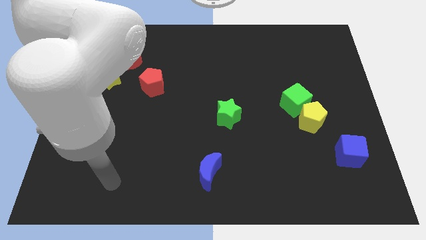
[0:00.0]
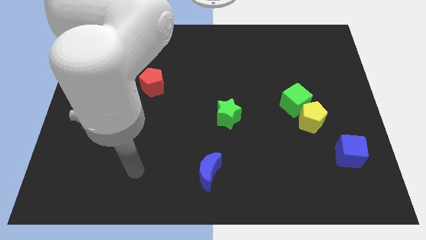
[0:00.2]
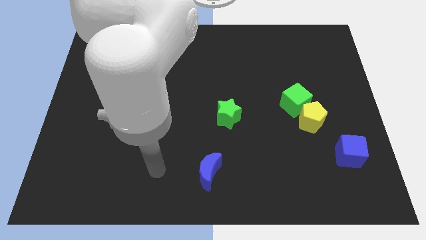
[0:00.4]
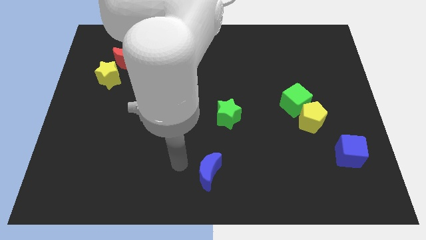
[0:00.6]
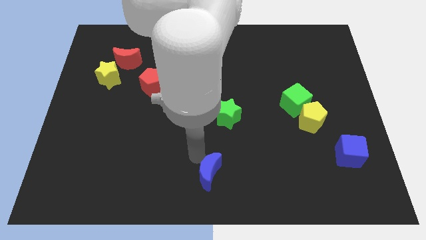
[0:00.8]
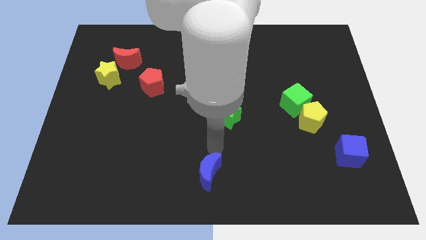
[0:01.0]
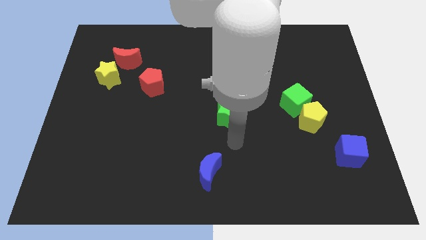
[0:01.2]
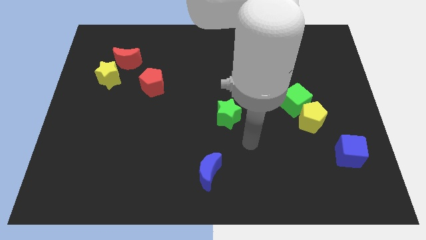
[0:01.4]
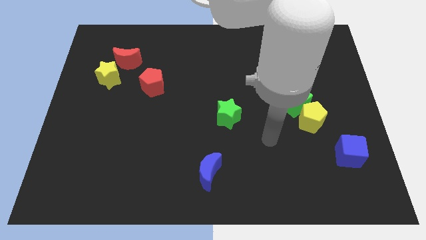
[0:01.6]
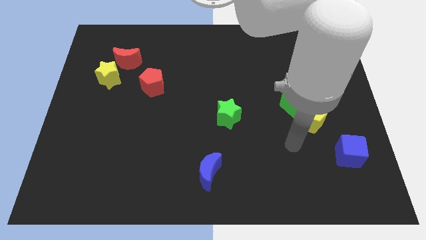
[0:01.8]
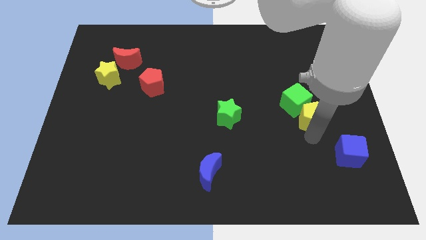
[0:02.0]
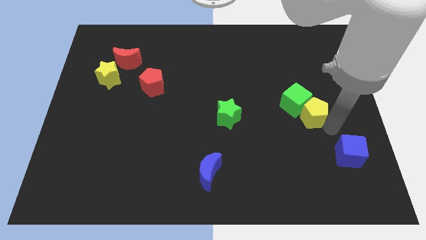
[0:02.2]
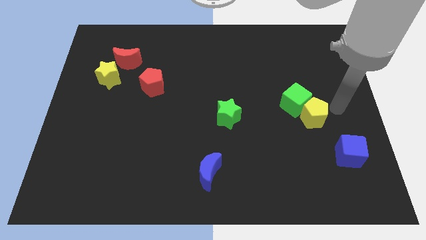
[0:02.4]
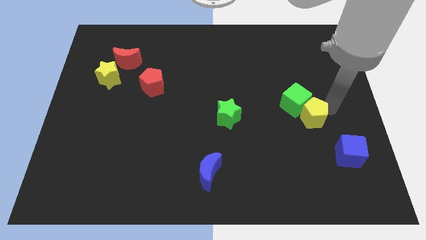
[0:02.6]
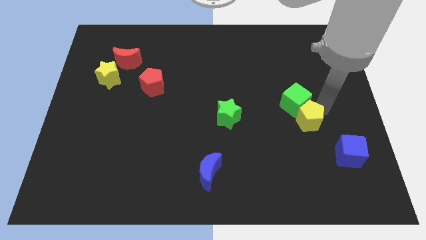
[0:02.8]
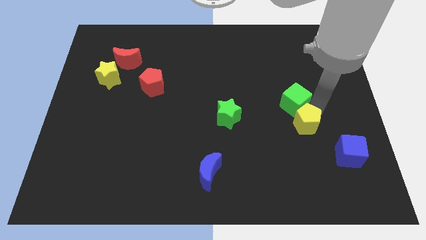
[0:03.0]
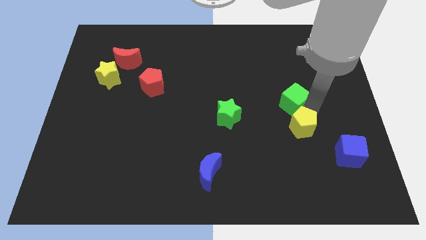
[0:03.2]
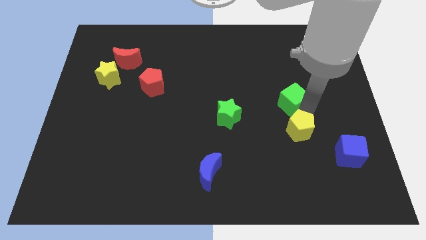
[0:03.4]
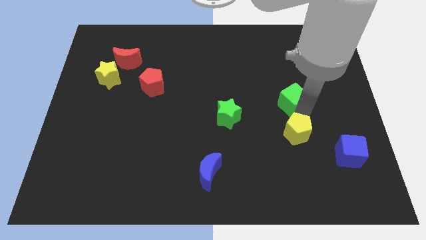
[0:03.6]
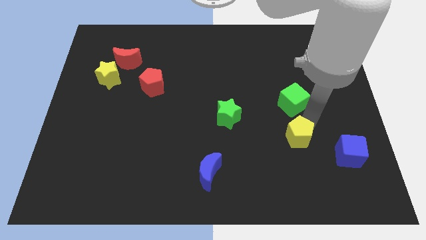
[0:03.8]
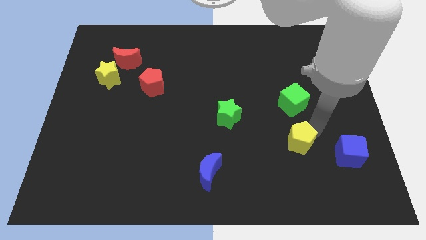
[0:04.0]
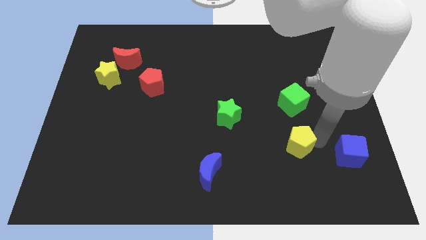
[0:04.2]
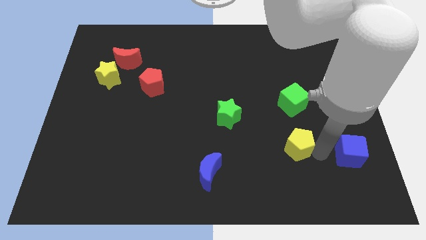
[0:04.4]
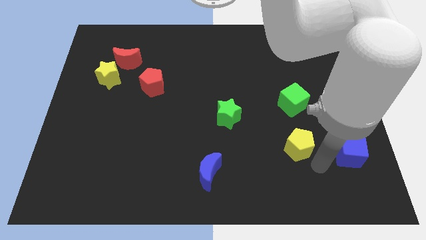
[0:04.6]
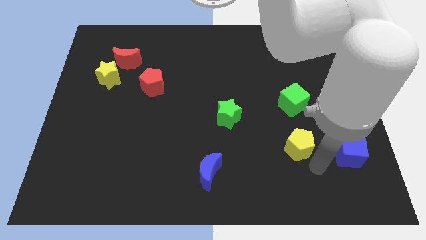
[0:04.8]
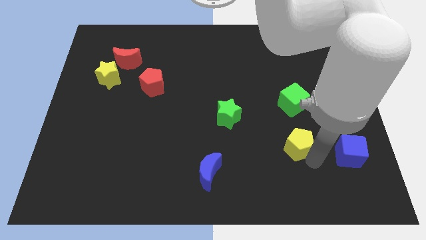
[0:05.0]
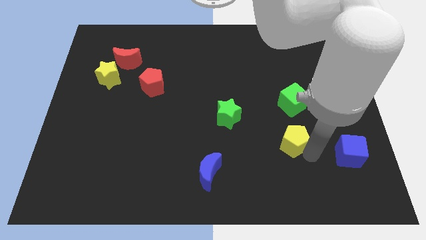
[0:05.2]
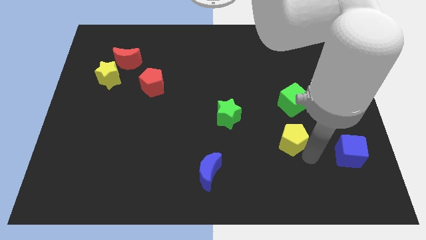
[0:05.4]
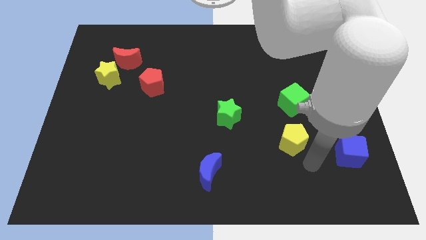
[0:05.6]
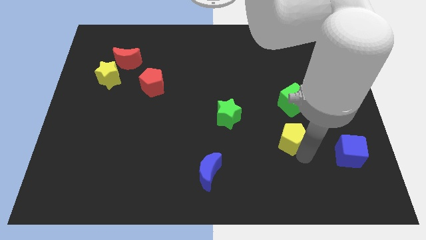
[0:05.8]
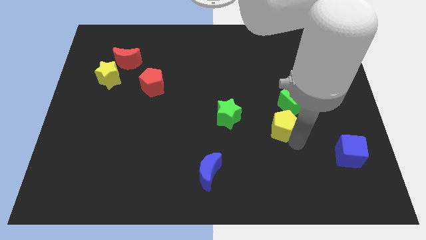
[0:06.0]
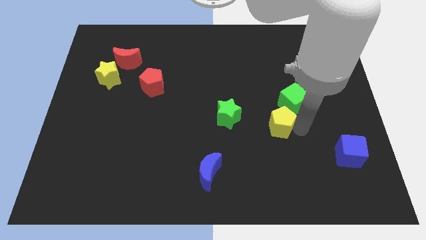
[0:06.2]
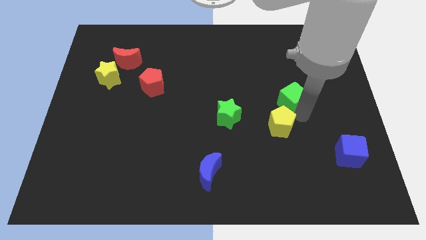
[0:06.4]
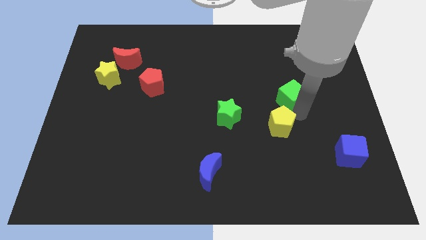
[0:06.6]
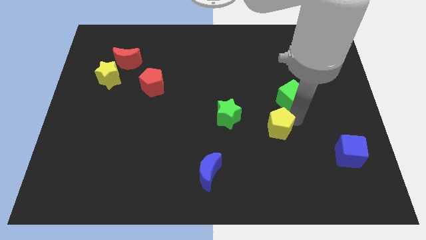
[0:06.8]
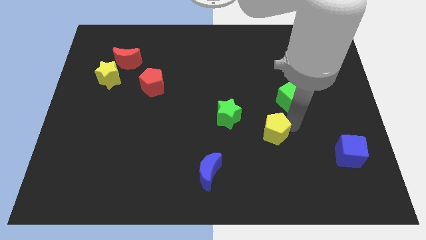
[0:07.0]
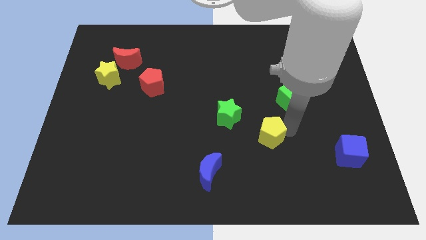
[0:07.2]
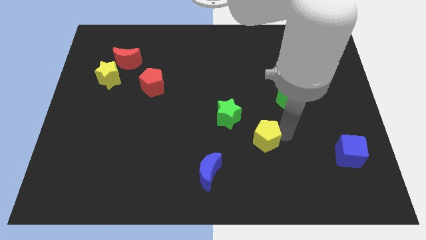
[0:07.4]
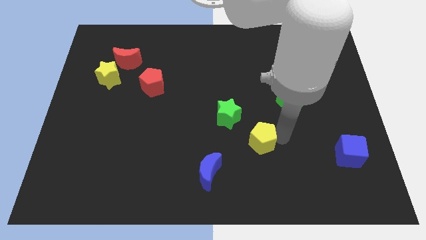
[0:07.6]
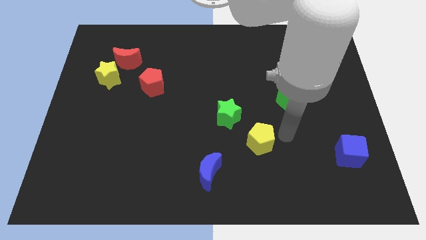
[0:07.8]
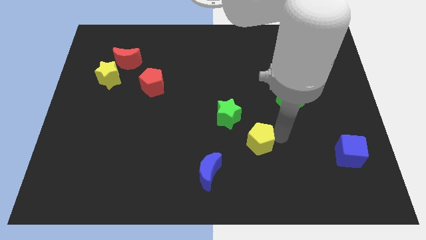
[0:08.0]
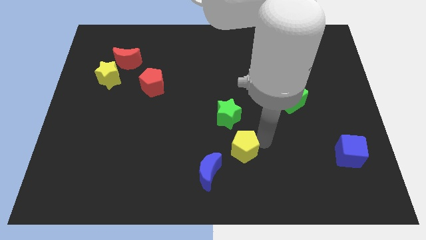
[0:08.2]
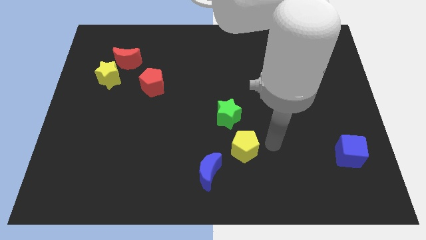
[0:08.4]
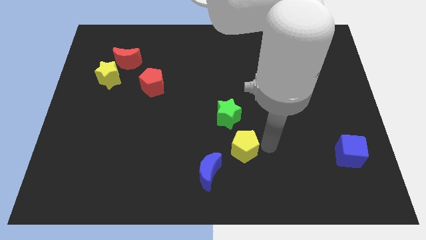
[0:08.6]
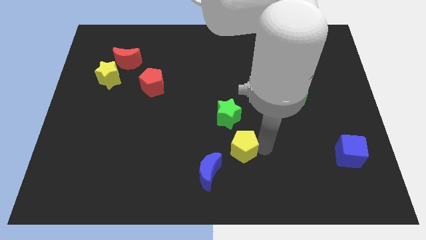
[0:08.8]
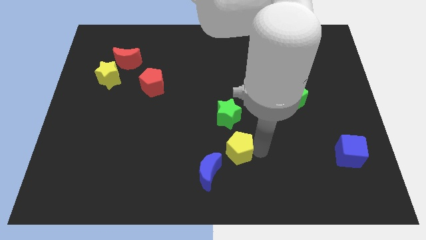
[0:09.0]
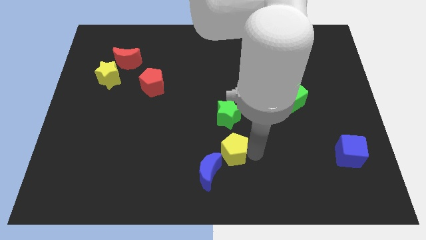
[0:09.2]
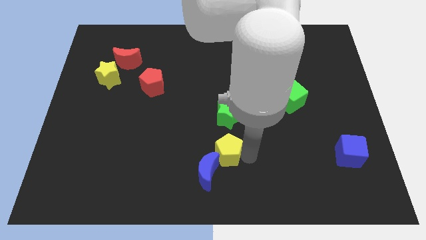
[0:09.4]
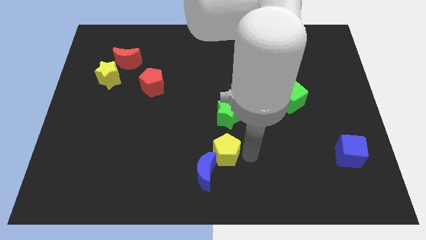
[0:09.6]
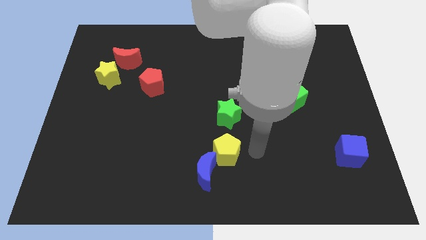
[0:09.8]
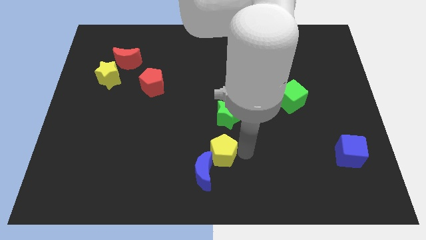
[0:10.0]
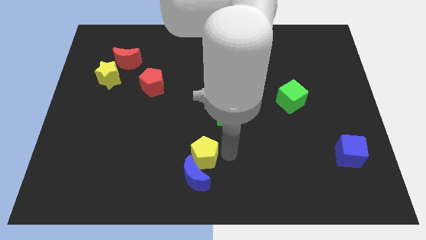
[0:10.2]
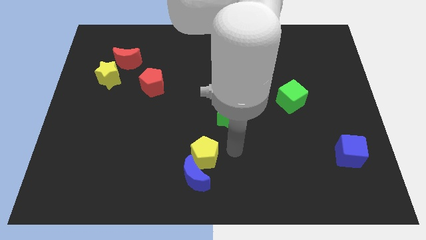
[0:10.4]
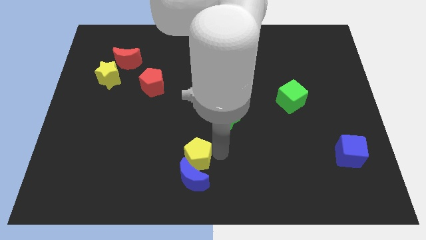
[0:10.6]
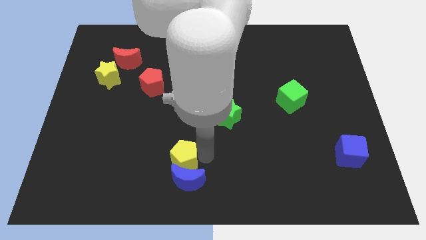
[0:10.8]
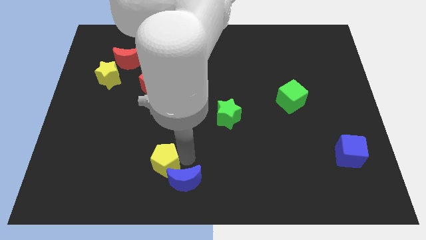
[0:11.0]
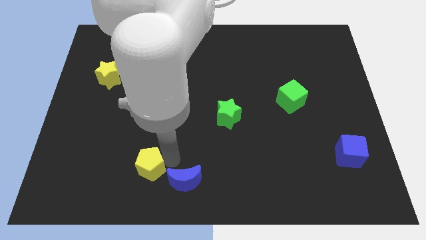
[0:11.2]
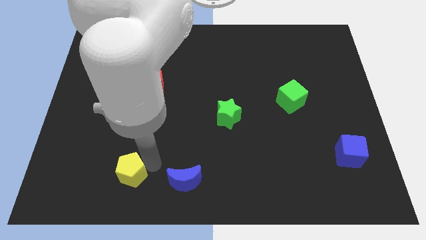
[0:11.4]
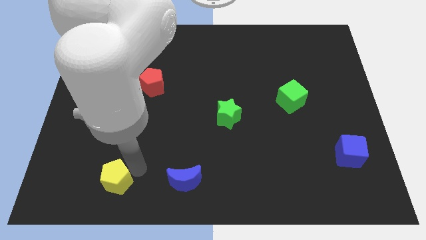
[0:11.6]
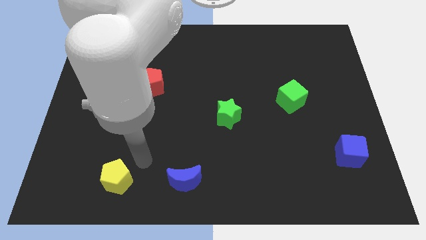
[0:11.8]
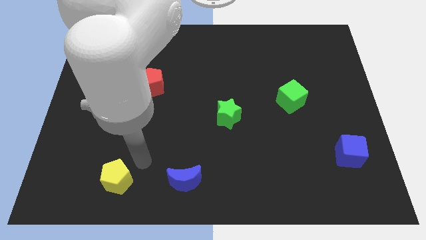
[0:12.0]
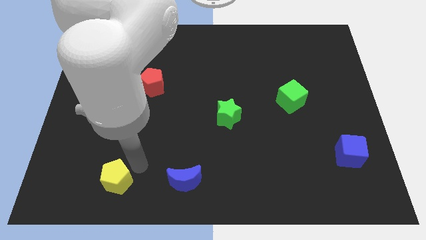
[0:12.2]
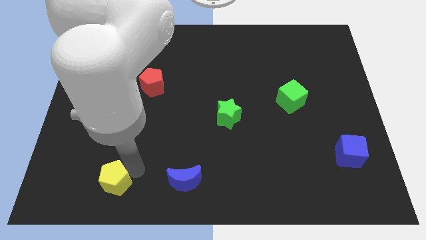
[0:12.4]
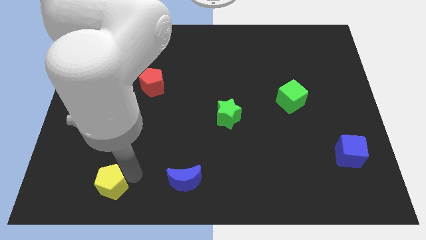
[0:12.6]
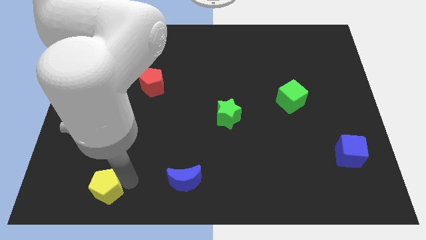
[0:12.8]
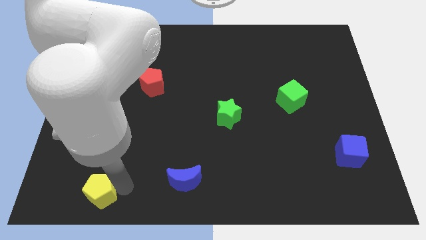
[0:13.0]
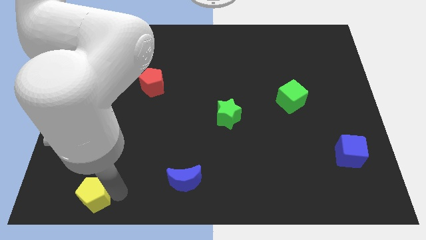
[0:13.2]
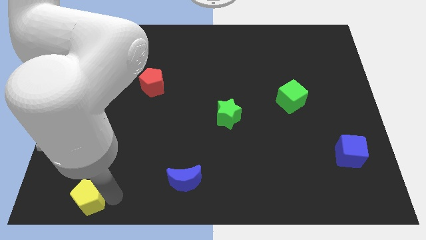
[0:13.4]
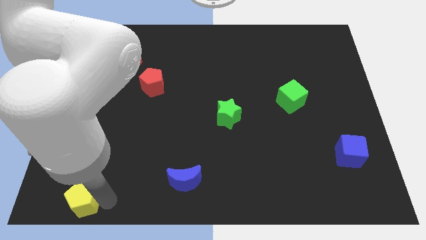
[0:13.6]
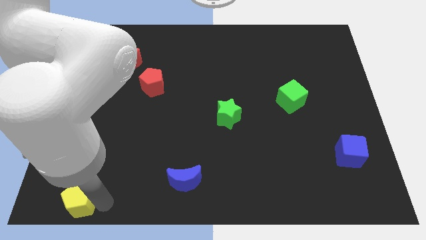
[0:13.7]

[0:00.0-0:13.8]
put the yellow pentagon to the bottom left
